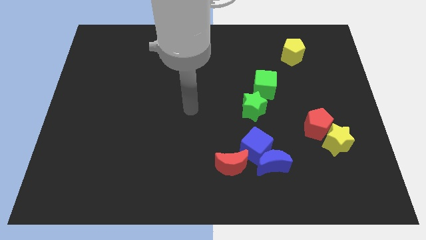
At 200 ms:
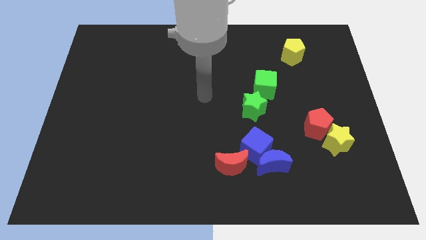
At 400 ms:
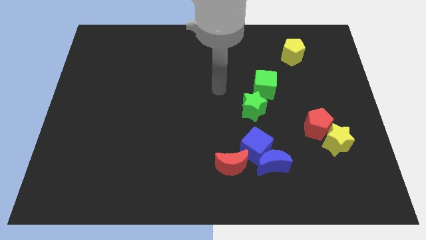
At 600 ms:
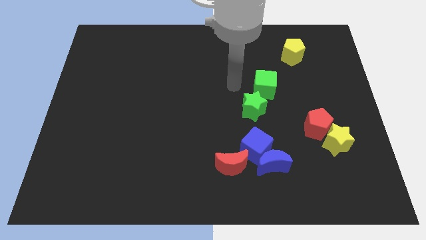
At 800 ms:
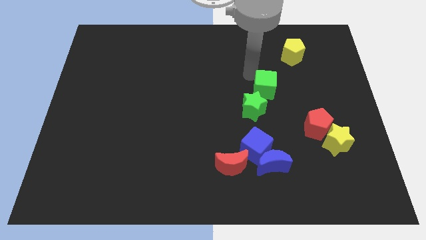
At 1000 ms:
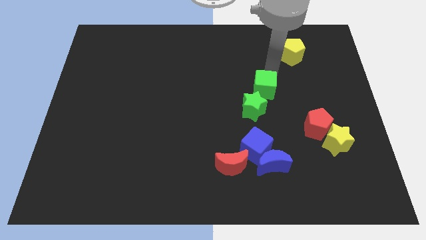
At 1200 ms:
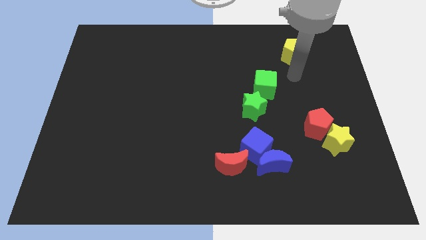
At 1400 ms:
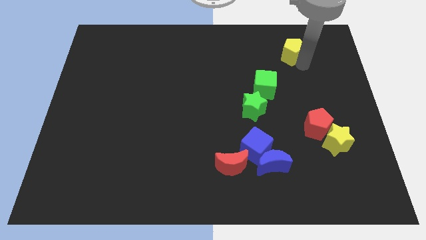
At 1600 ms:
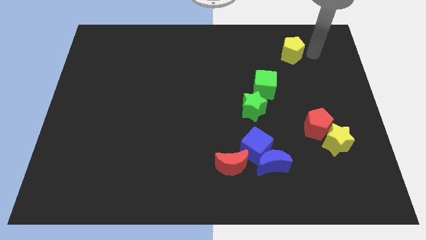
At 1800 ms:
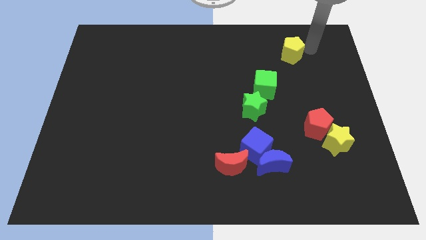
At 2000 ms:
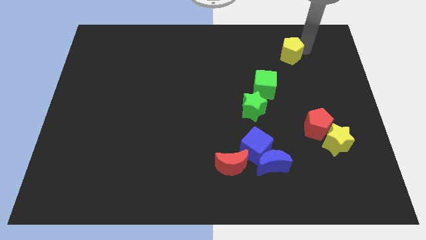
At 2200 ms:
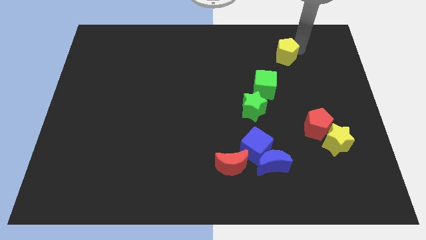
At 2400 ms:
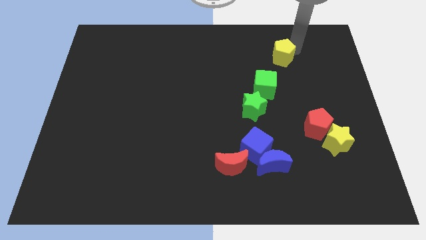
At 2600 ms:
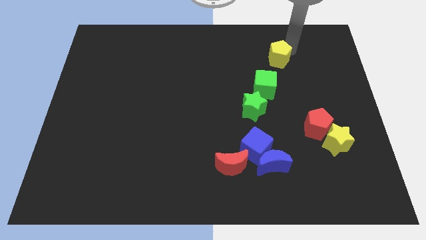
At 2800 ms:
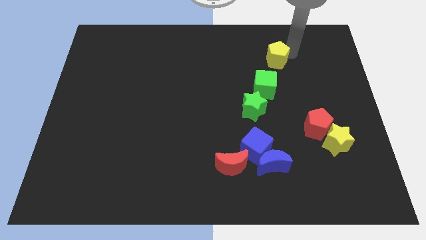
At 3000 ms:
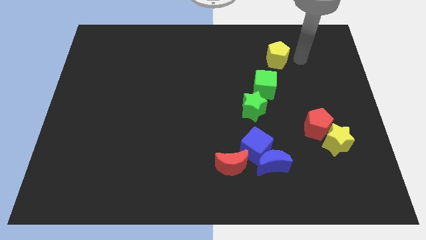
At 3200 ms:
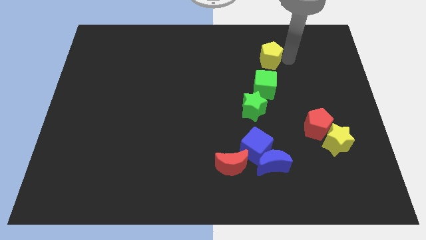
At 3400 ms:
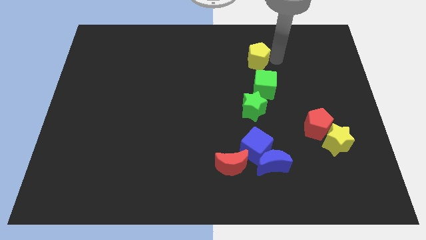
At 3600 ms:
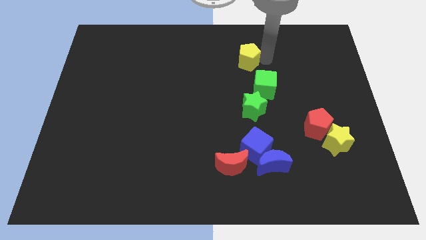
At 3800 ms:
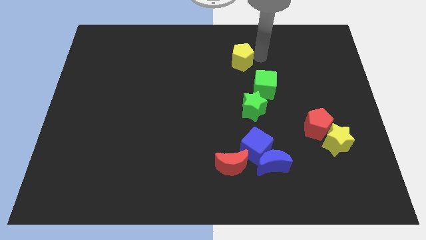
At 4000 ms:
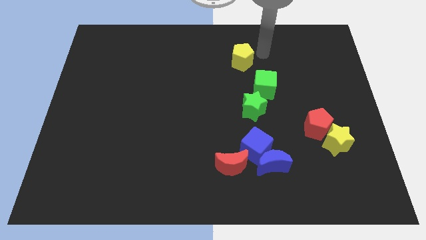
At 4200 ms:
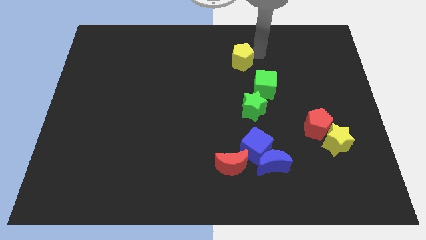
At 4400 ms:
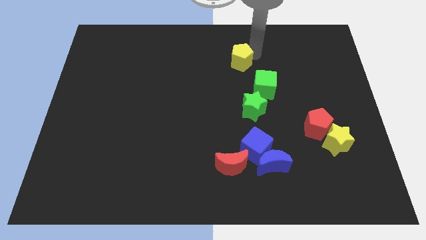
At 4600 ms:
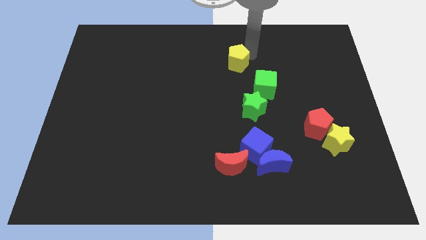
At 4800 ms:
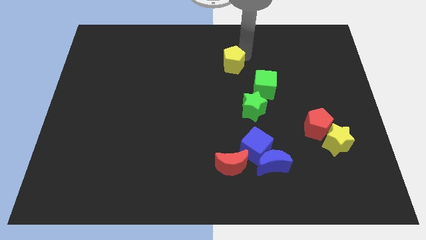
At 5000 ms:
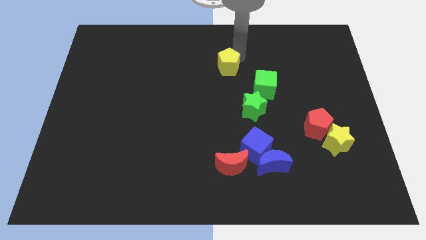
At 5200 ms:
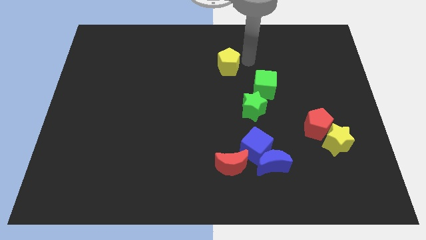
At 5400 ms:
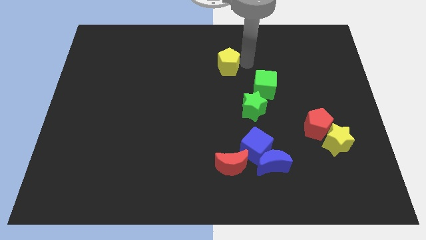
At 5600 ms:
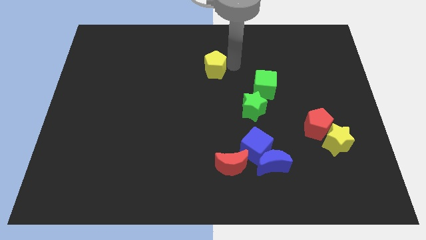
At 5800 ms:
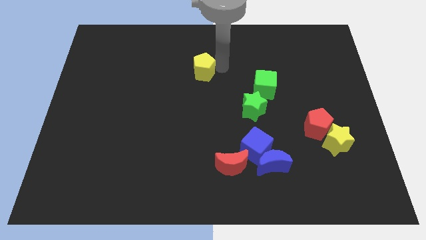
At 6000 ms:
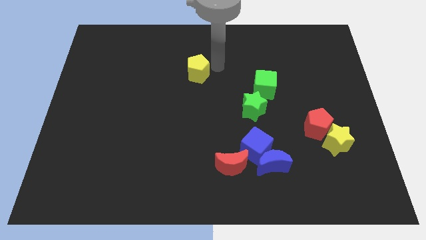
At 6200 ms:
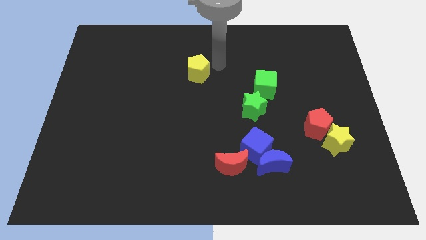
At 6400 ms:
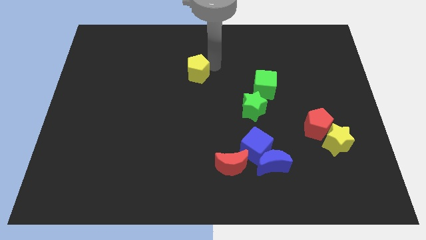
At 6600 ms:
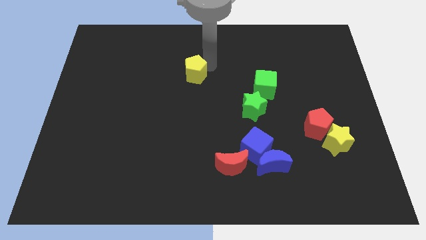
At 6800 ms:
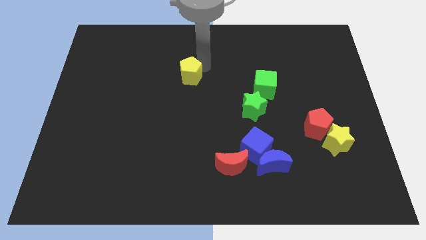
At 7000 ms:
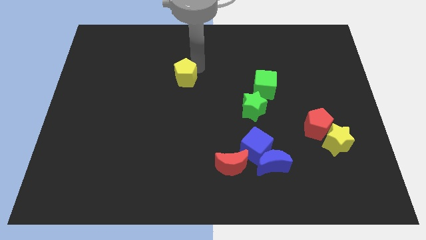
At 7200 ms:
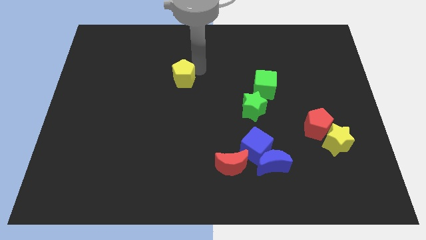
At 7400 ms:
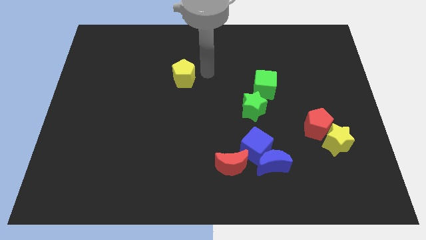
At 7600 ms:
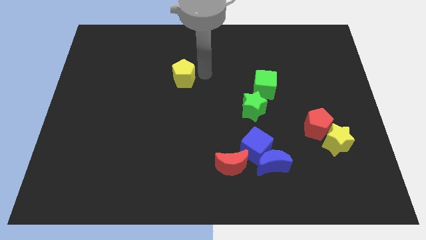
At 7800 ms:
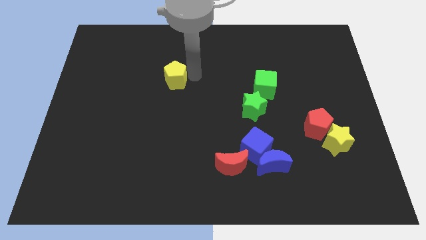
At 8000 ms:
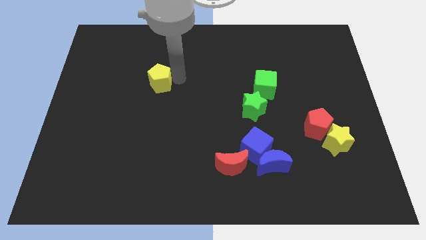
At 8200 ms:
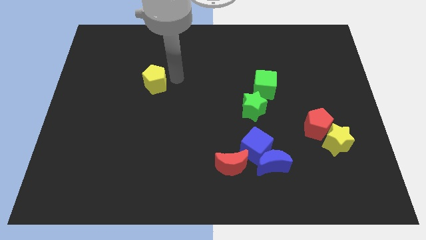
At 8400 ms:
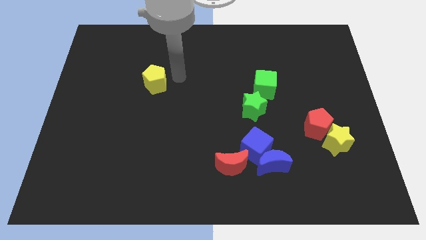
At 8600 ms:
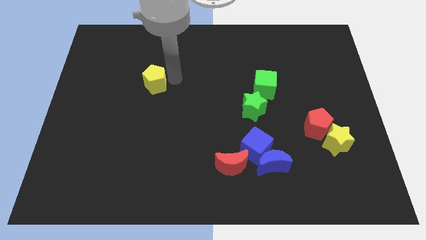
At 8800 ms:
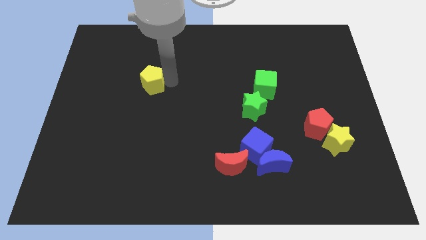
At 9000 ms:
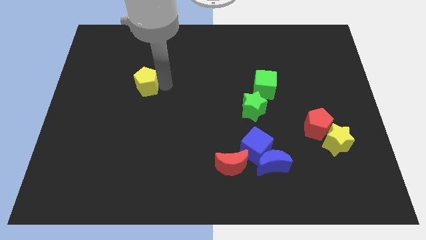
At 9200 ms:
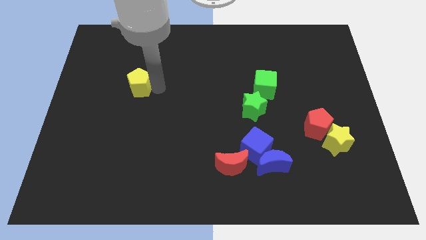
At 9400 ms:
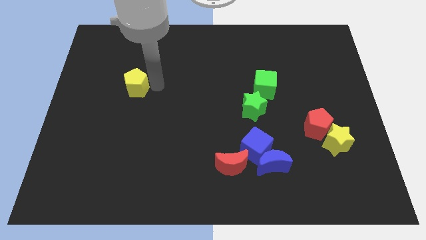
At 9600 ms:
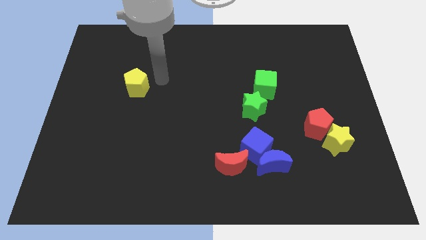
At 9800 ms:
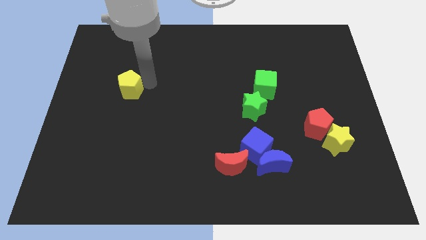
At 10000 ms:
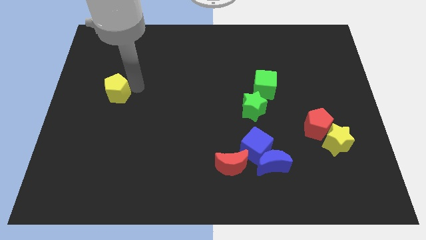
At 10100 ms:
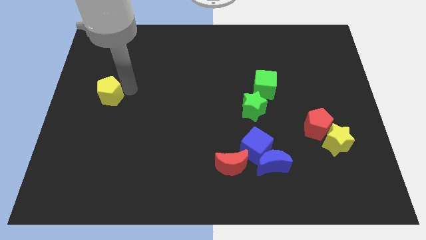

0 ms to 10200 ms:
push the yellow pentagon to the left side

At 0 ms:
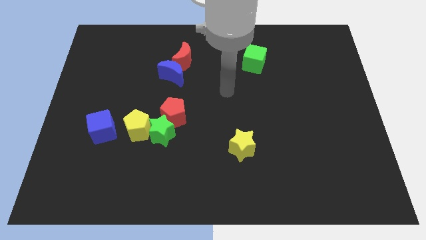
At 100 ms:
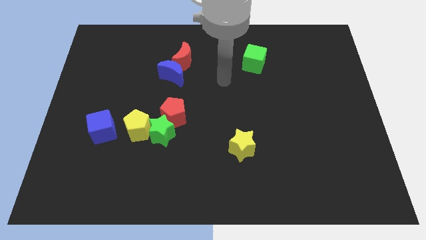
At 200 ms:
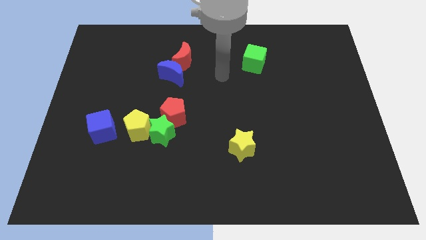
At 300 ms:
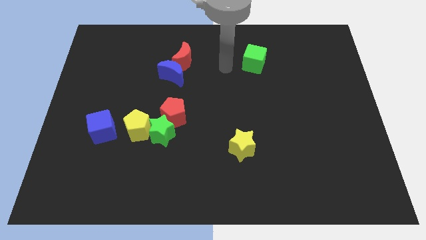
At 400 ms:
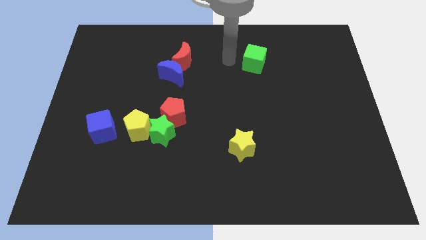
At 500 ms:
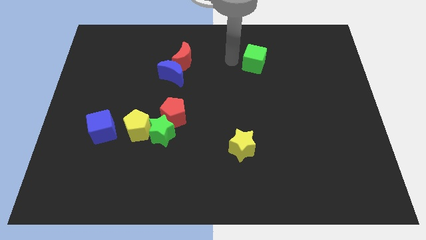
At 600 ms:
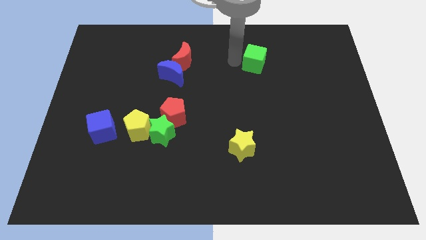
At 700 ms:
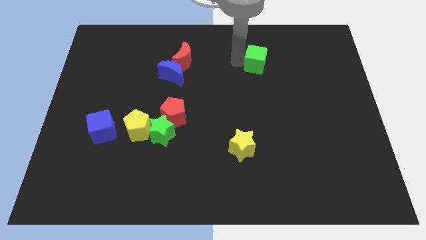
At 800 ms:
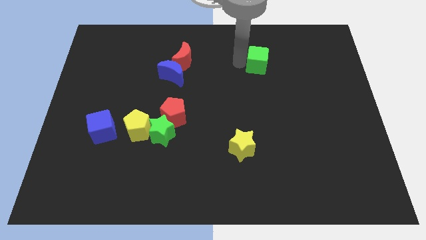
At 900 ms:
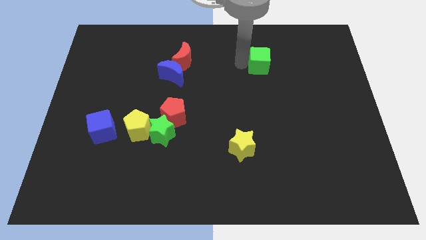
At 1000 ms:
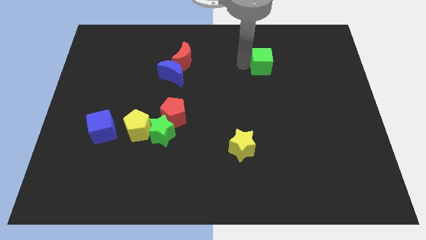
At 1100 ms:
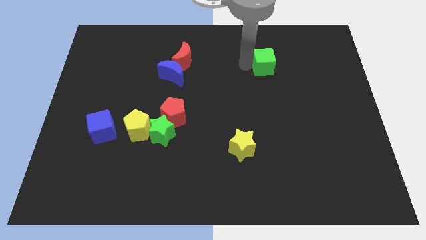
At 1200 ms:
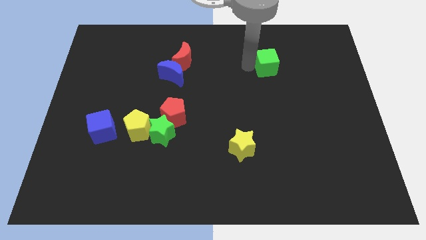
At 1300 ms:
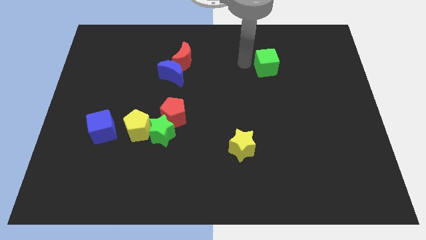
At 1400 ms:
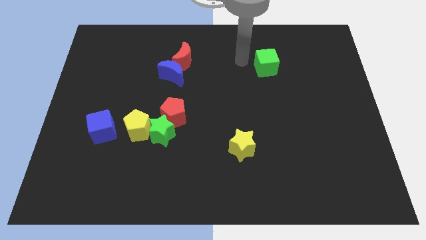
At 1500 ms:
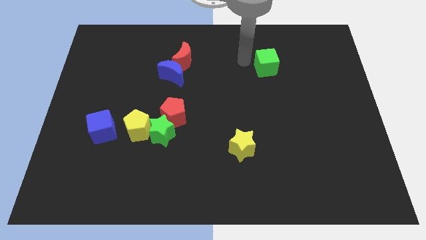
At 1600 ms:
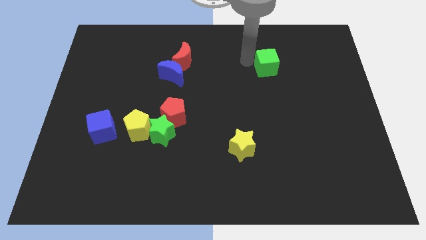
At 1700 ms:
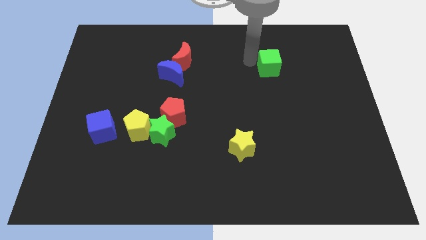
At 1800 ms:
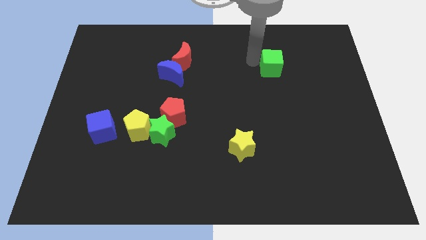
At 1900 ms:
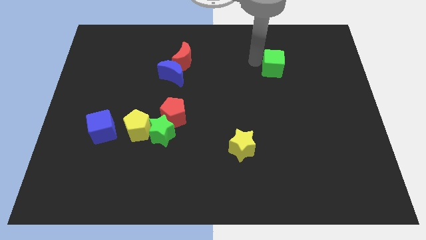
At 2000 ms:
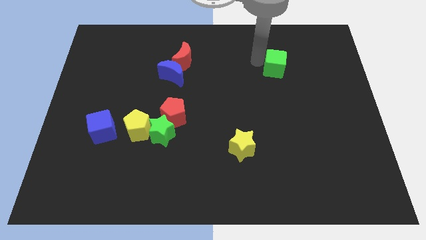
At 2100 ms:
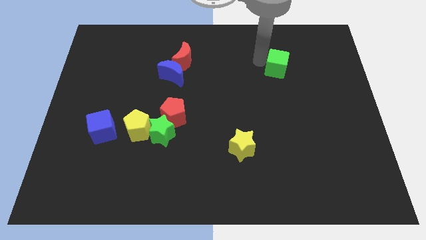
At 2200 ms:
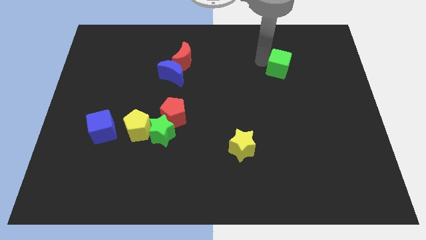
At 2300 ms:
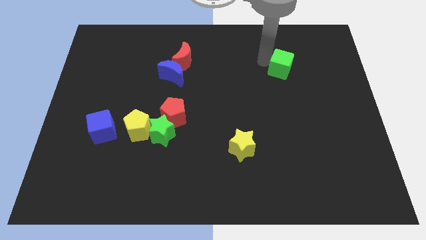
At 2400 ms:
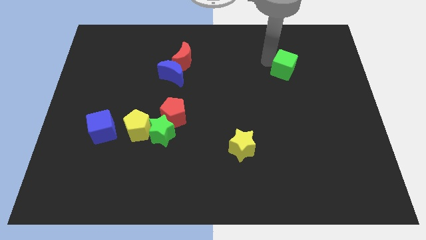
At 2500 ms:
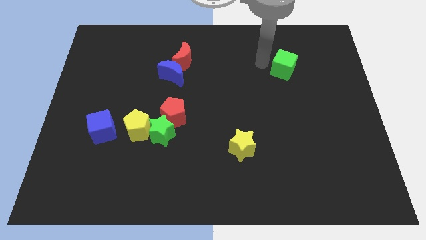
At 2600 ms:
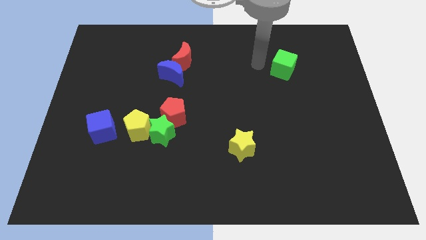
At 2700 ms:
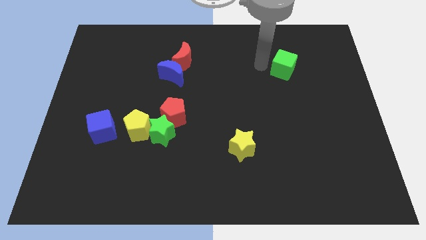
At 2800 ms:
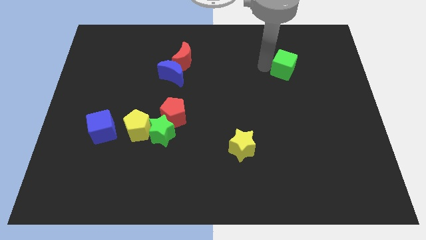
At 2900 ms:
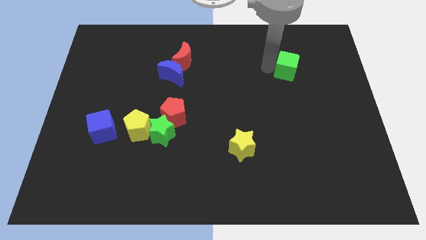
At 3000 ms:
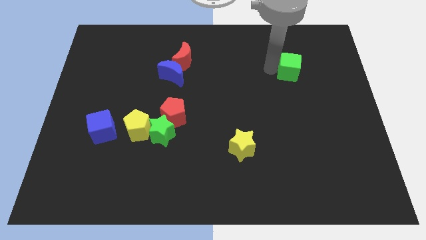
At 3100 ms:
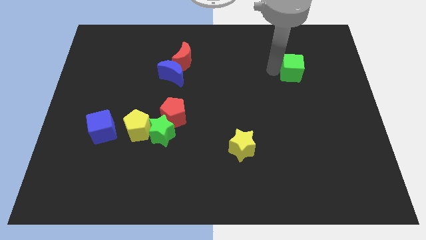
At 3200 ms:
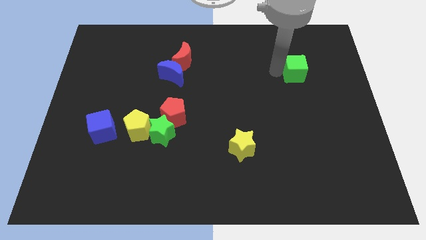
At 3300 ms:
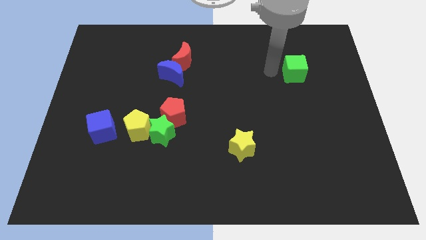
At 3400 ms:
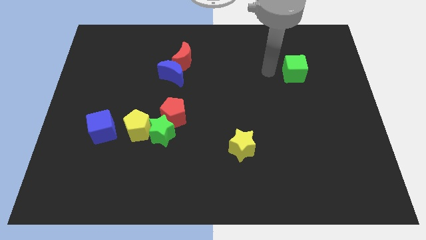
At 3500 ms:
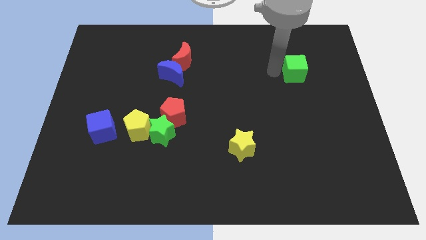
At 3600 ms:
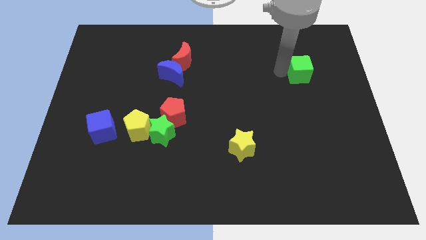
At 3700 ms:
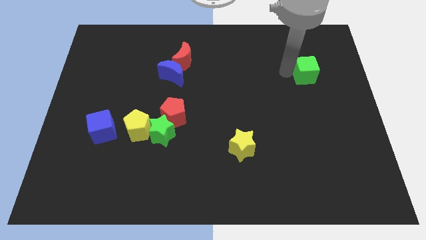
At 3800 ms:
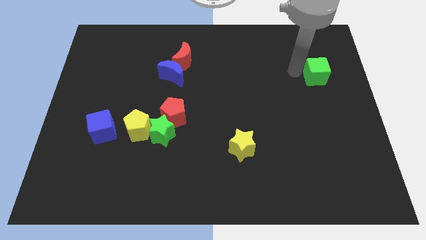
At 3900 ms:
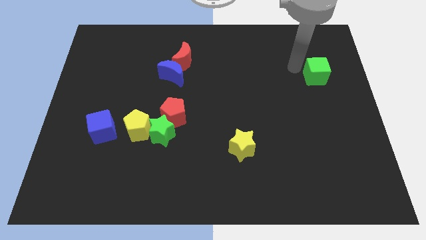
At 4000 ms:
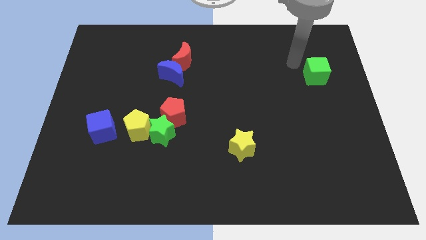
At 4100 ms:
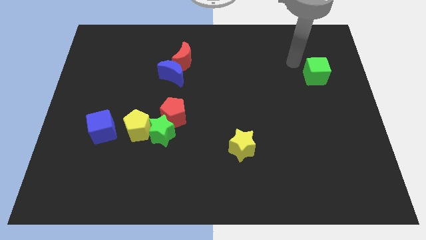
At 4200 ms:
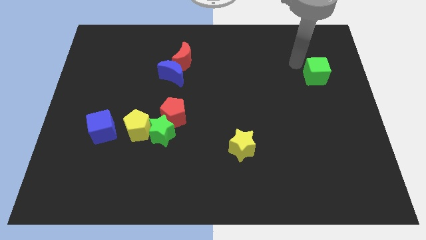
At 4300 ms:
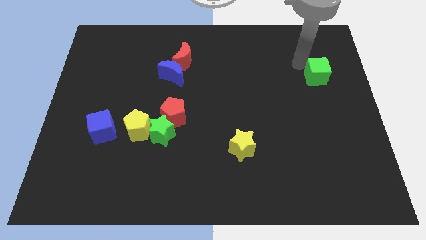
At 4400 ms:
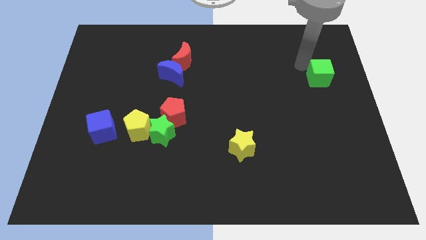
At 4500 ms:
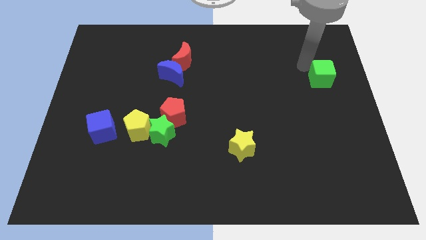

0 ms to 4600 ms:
put the green cube to the right side
